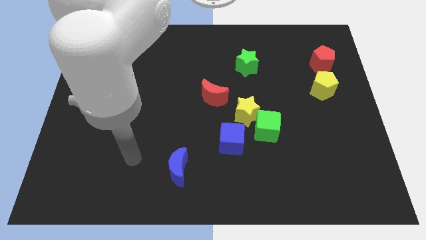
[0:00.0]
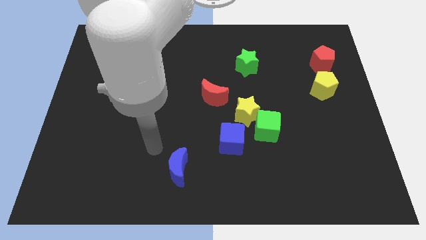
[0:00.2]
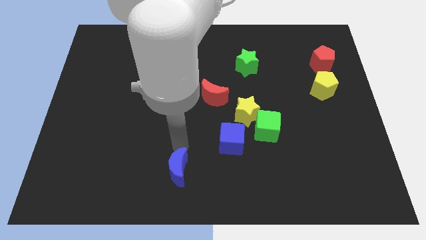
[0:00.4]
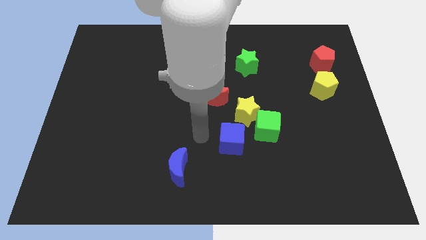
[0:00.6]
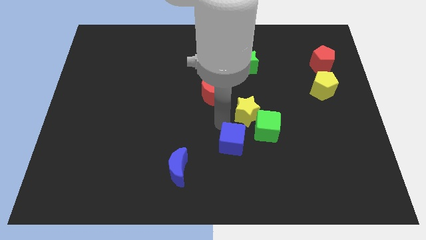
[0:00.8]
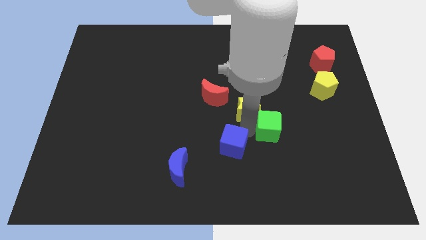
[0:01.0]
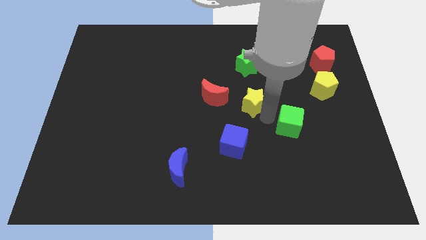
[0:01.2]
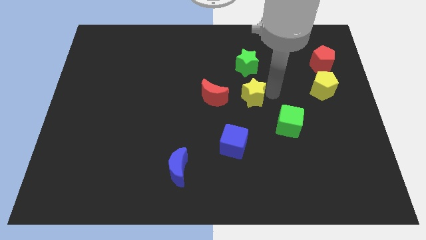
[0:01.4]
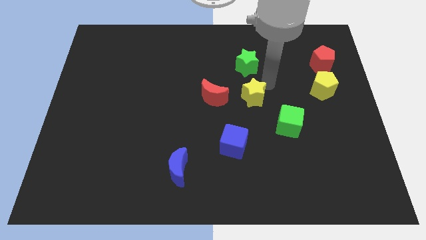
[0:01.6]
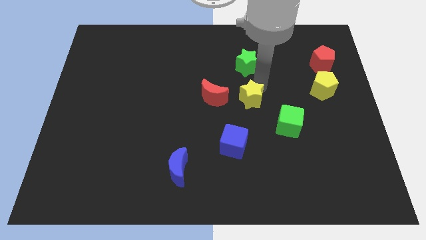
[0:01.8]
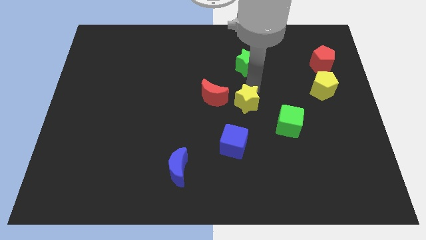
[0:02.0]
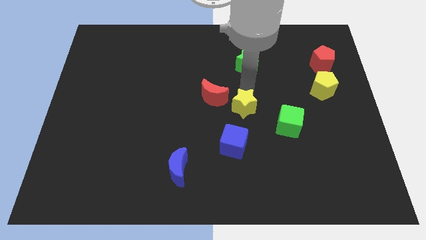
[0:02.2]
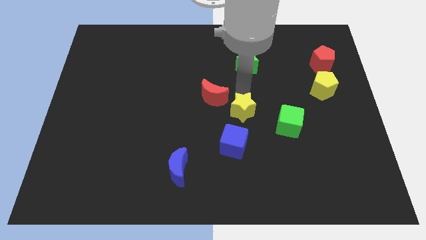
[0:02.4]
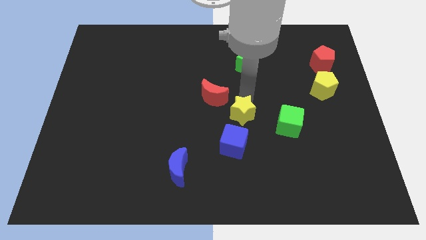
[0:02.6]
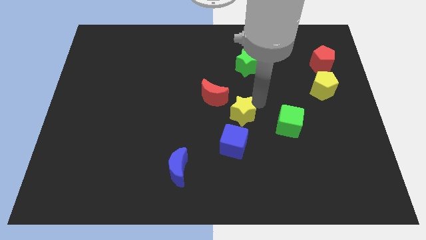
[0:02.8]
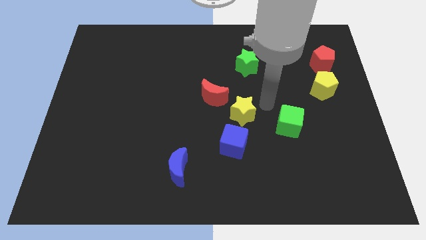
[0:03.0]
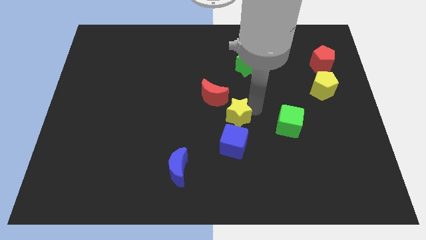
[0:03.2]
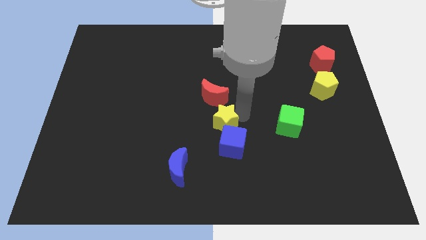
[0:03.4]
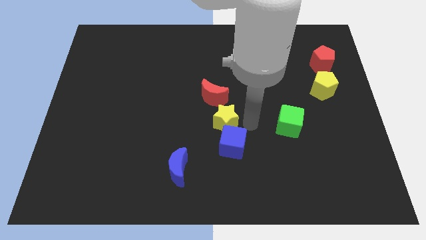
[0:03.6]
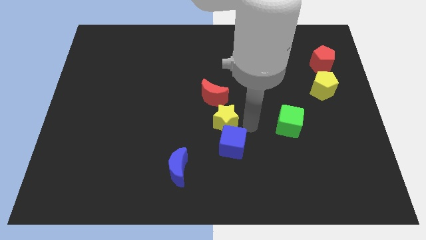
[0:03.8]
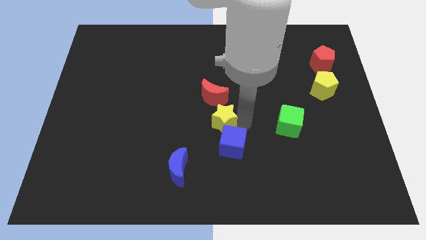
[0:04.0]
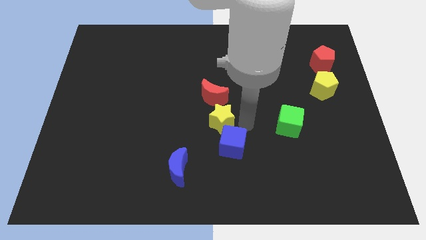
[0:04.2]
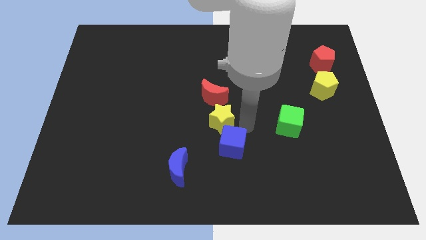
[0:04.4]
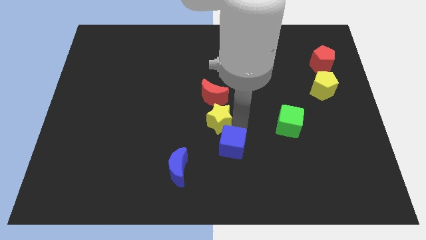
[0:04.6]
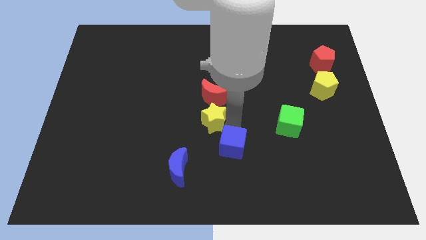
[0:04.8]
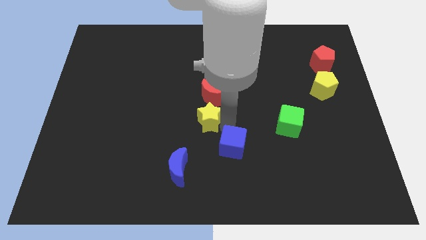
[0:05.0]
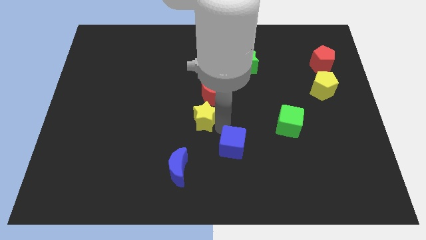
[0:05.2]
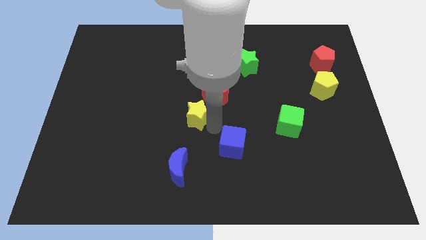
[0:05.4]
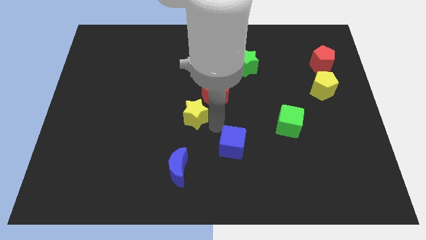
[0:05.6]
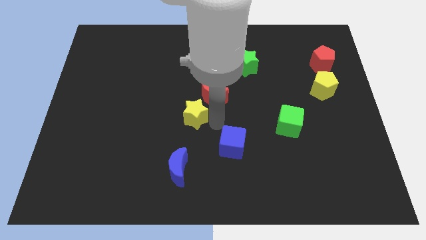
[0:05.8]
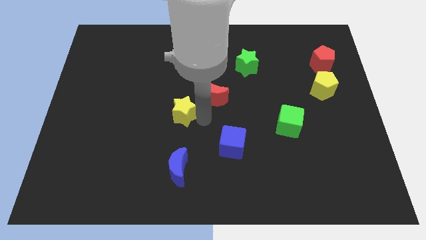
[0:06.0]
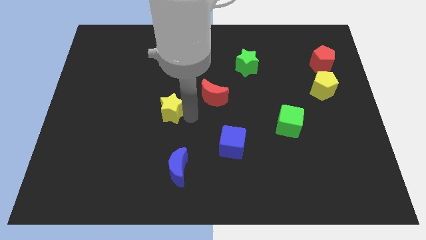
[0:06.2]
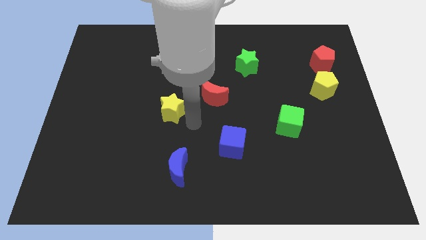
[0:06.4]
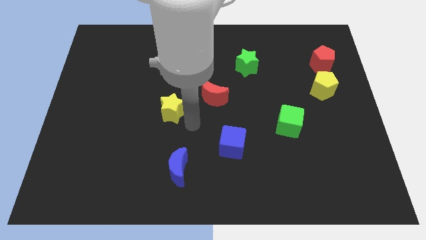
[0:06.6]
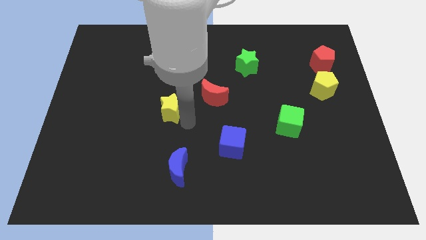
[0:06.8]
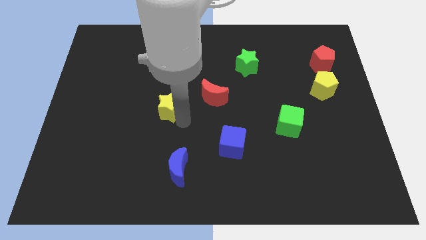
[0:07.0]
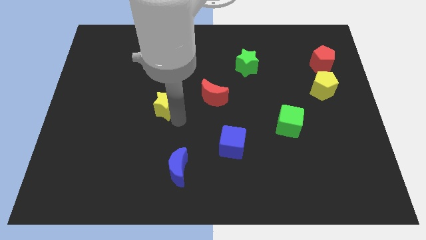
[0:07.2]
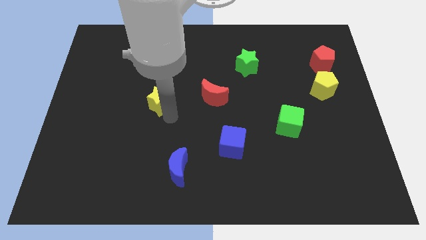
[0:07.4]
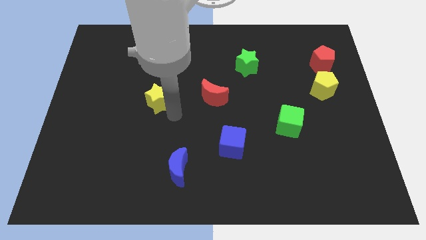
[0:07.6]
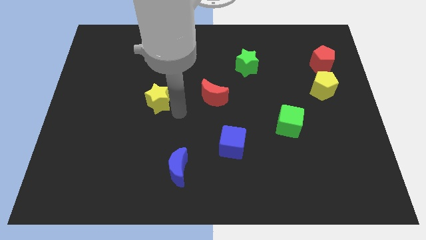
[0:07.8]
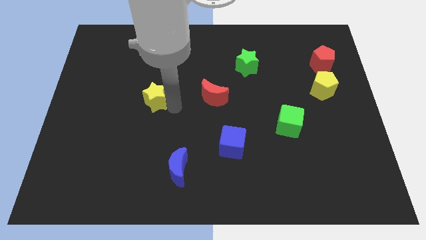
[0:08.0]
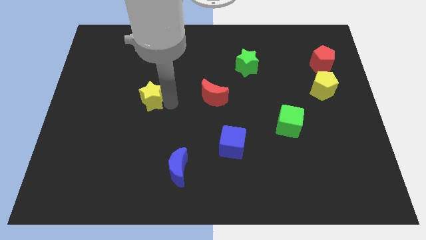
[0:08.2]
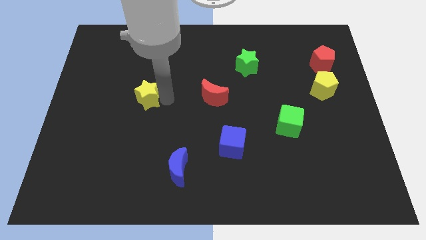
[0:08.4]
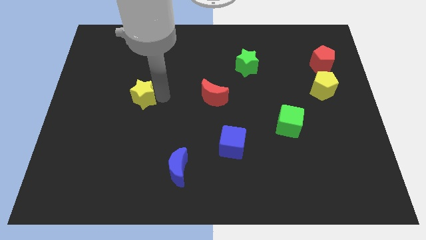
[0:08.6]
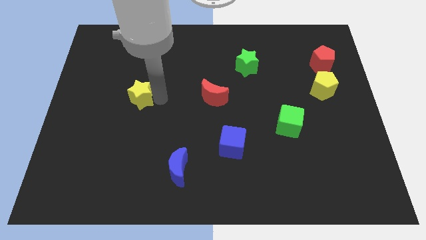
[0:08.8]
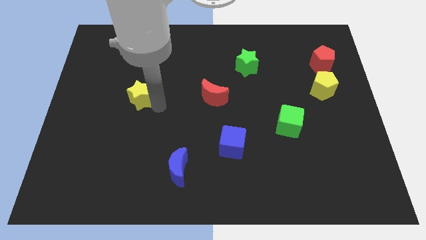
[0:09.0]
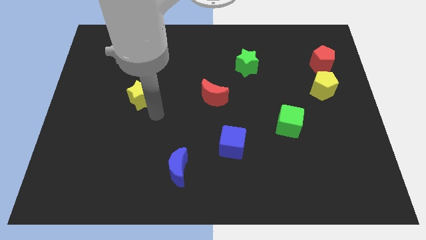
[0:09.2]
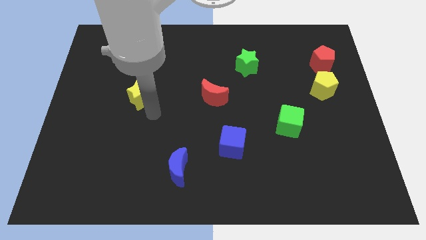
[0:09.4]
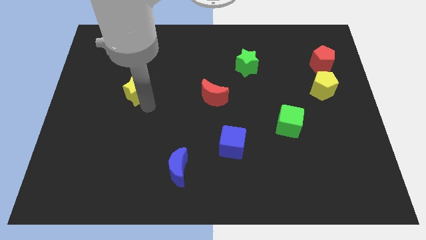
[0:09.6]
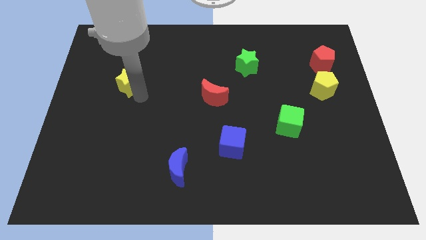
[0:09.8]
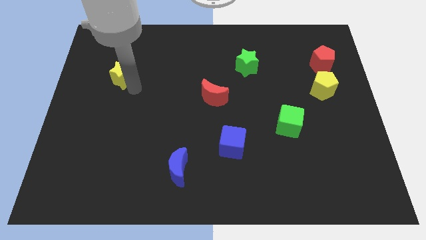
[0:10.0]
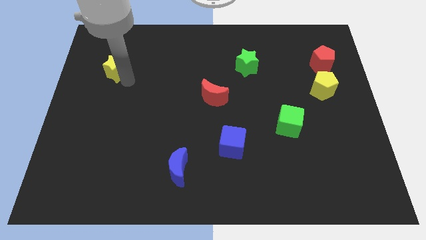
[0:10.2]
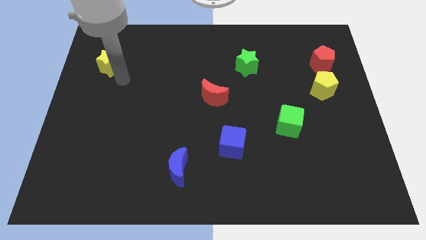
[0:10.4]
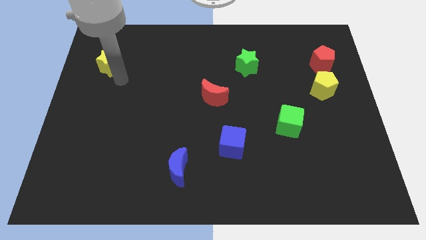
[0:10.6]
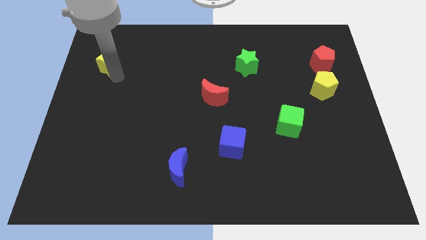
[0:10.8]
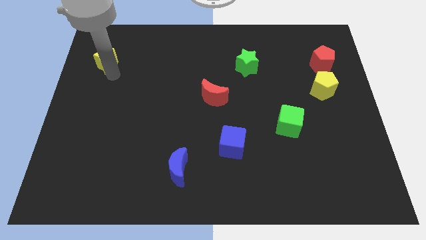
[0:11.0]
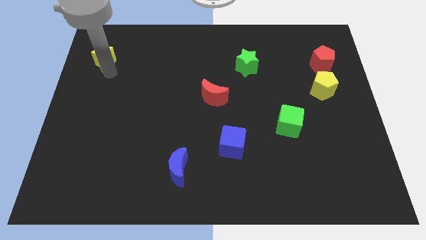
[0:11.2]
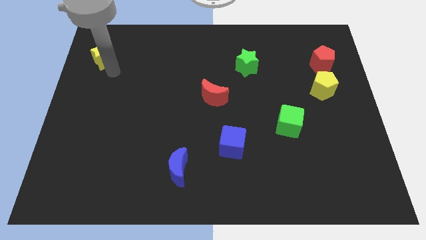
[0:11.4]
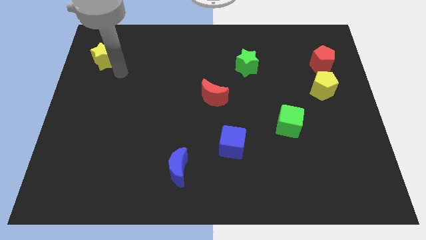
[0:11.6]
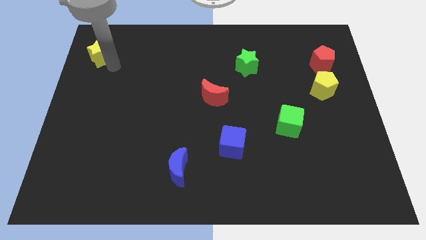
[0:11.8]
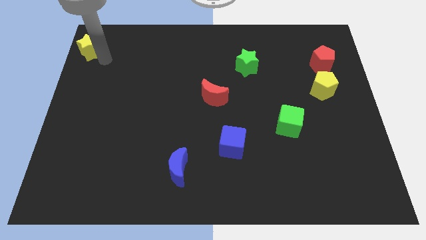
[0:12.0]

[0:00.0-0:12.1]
push the yellow star to the upper left corner
